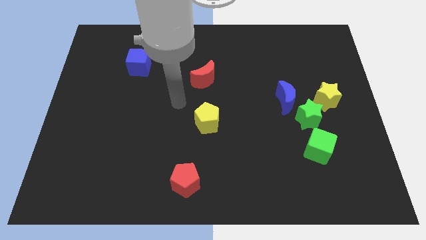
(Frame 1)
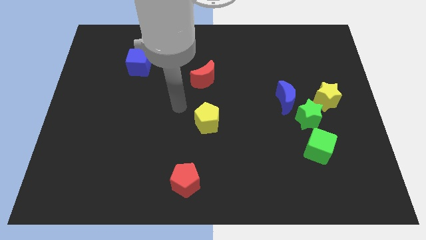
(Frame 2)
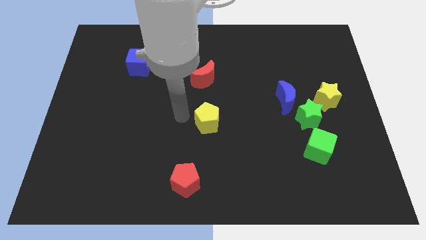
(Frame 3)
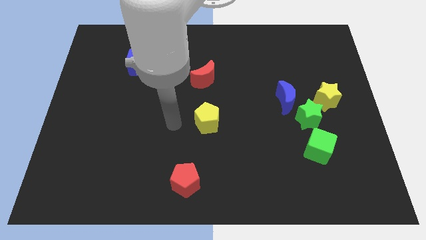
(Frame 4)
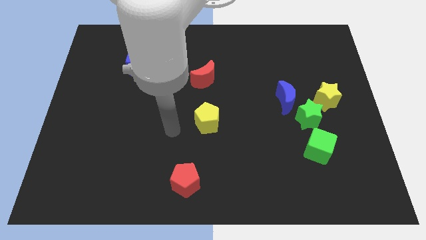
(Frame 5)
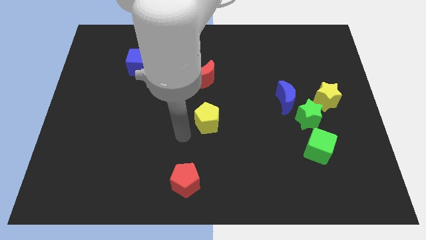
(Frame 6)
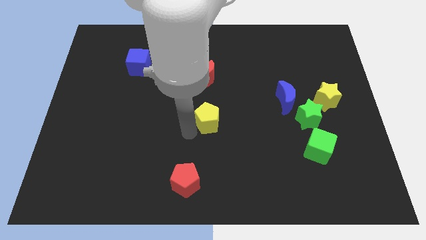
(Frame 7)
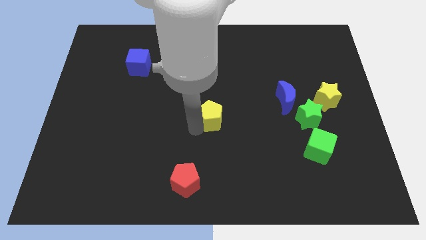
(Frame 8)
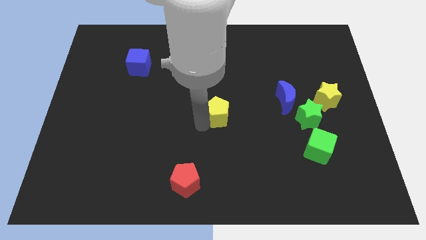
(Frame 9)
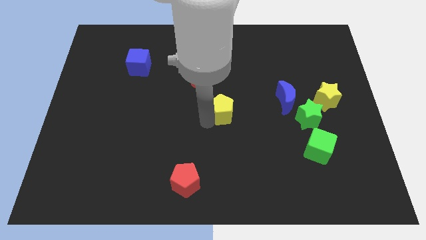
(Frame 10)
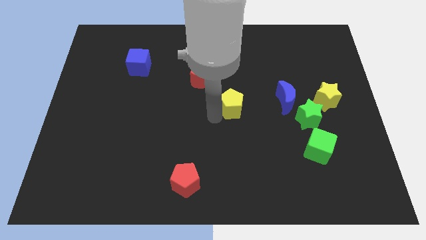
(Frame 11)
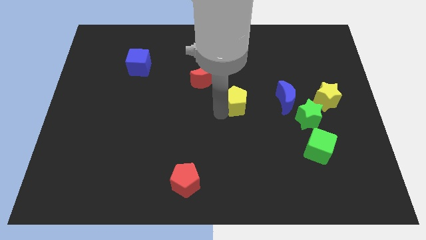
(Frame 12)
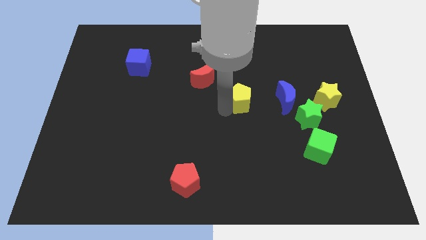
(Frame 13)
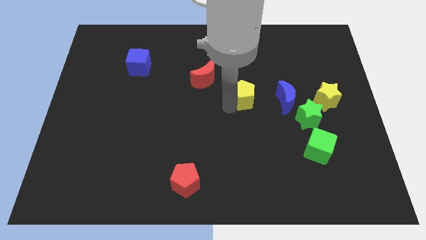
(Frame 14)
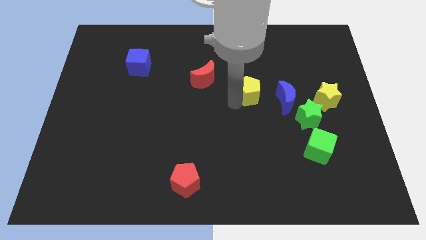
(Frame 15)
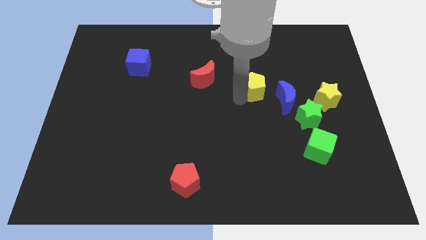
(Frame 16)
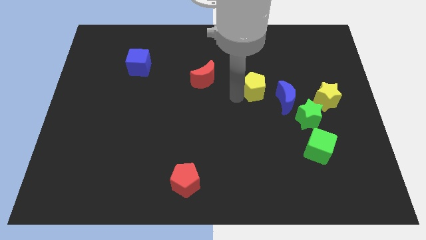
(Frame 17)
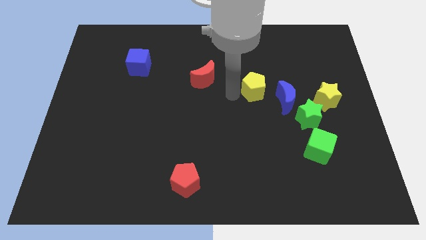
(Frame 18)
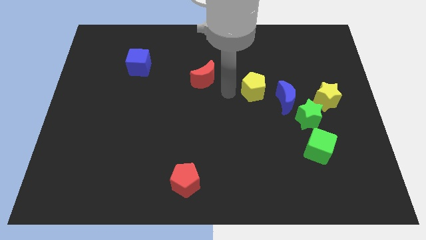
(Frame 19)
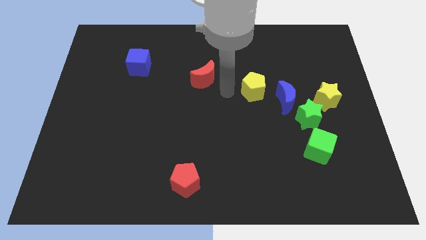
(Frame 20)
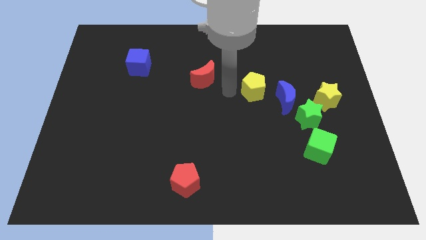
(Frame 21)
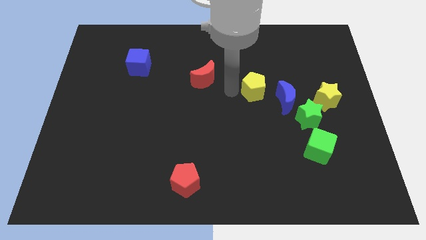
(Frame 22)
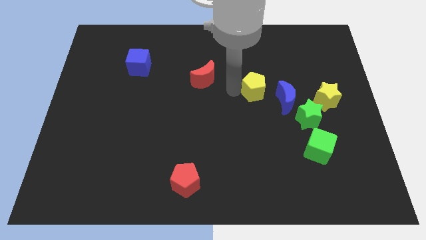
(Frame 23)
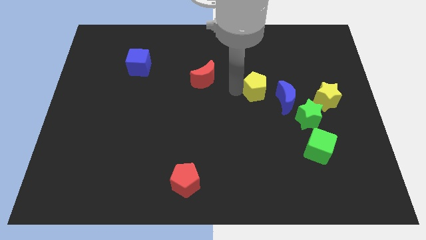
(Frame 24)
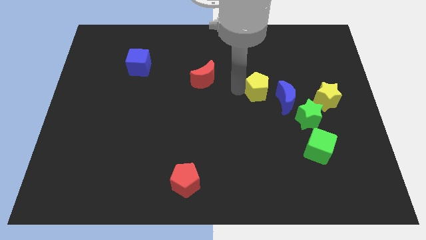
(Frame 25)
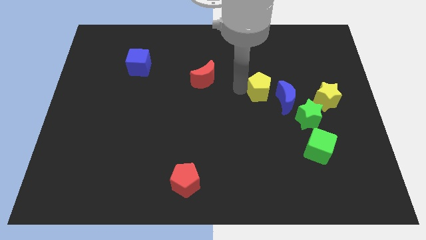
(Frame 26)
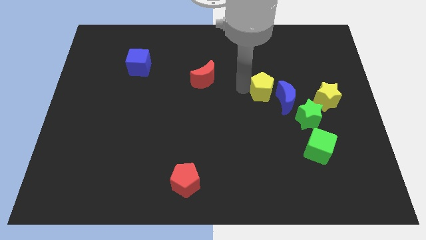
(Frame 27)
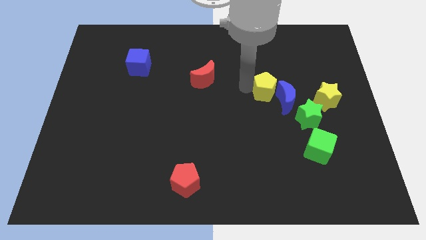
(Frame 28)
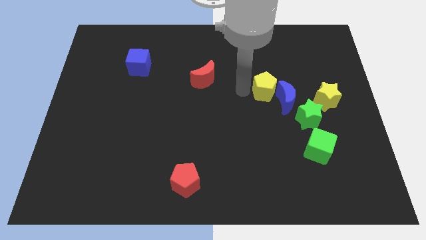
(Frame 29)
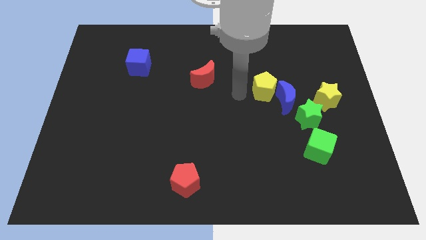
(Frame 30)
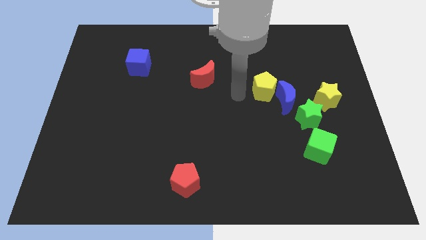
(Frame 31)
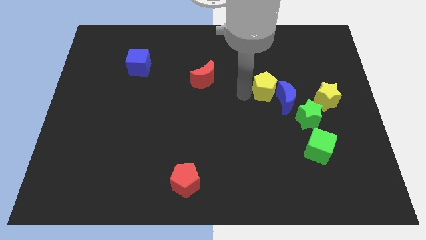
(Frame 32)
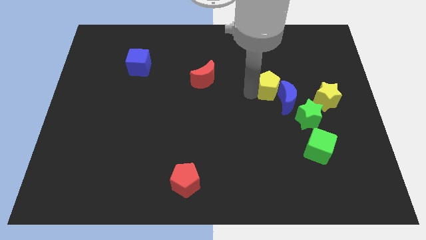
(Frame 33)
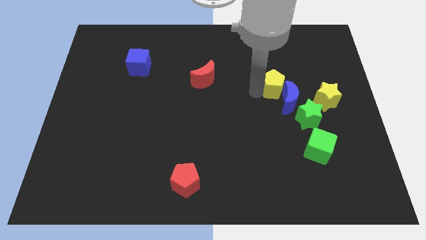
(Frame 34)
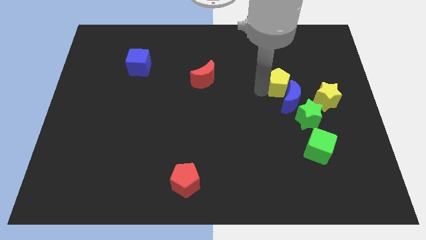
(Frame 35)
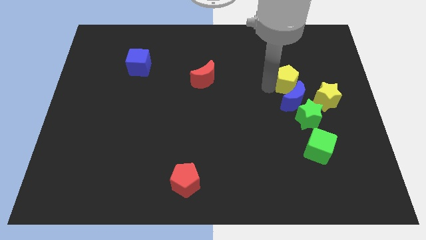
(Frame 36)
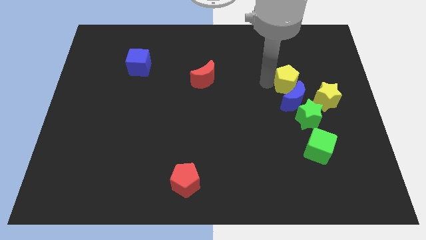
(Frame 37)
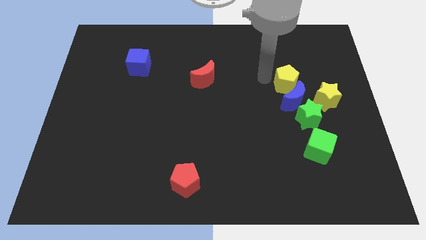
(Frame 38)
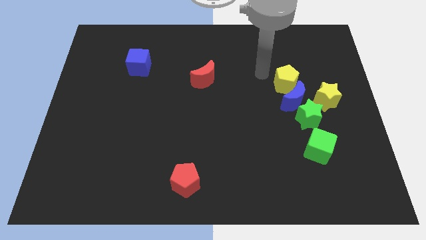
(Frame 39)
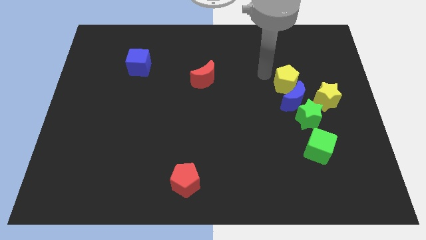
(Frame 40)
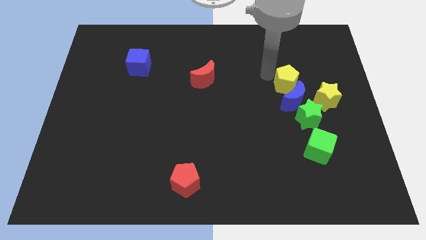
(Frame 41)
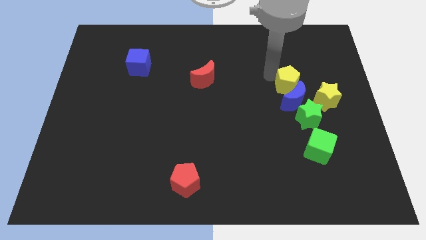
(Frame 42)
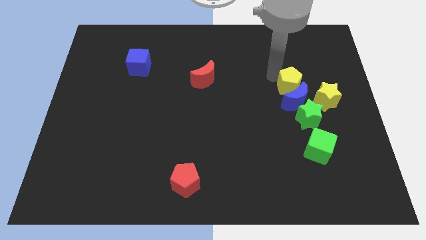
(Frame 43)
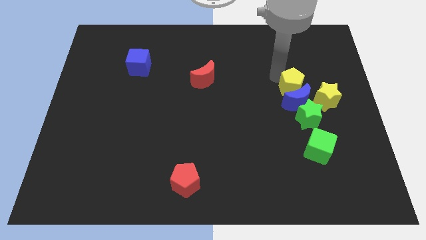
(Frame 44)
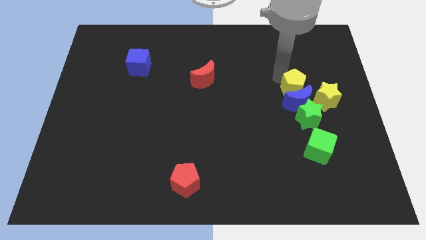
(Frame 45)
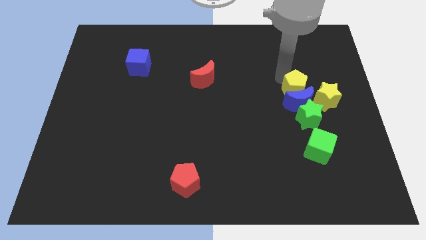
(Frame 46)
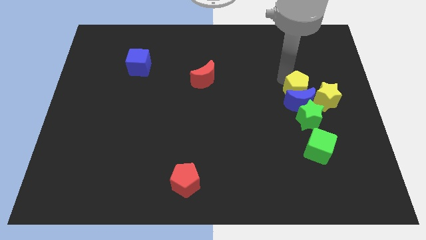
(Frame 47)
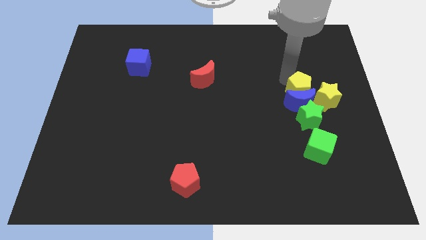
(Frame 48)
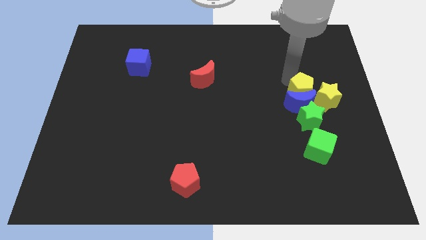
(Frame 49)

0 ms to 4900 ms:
move the yellow pentagon close to the yellow star

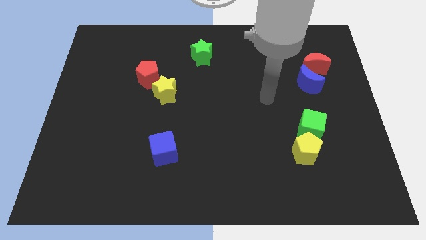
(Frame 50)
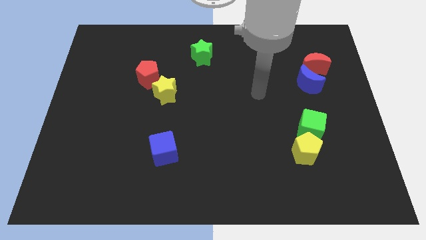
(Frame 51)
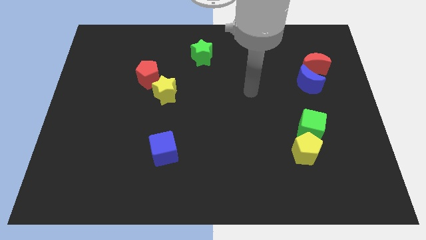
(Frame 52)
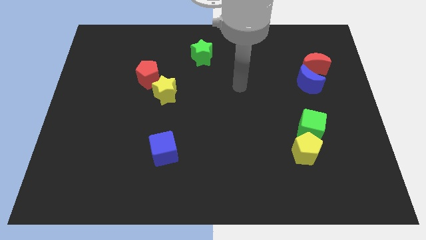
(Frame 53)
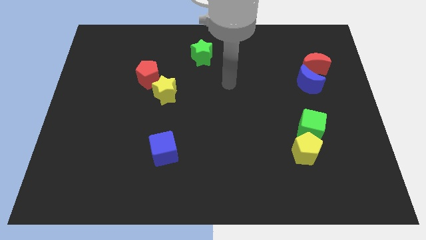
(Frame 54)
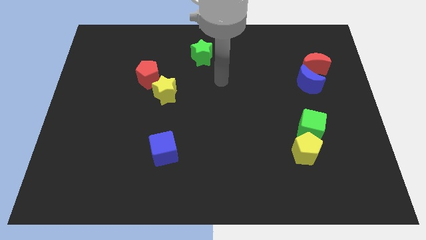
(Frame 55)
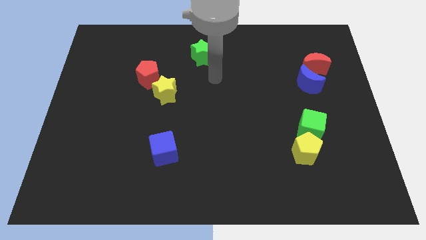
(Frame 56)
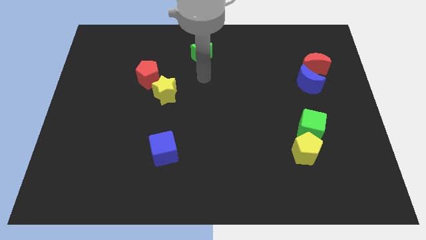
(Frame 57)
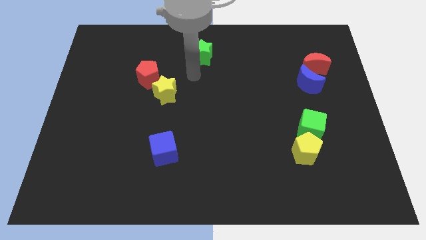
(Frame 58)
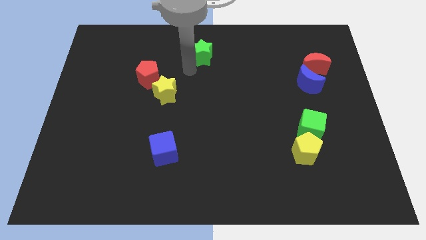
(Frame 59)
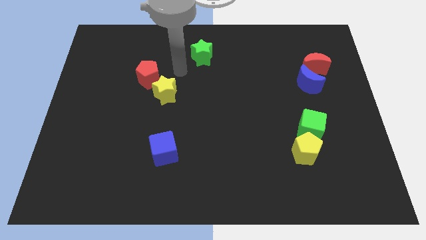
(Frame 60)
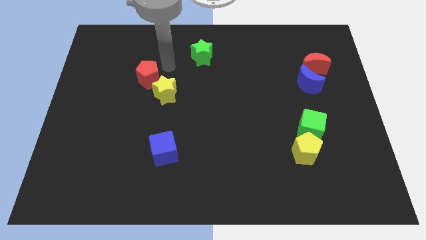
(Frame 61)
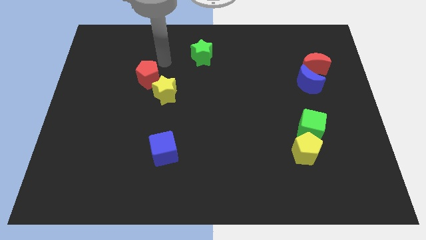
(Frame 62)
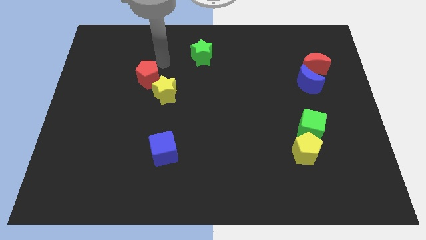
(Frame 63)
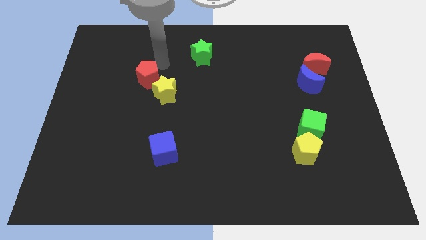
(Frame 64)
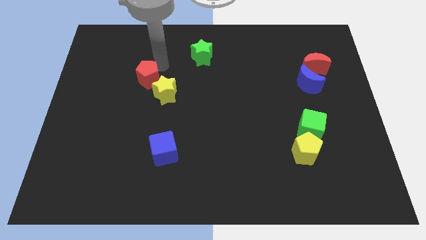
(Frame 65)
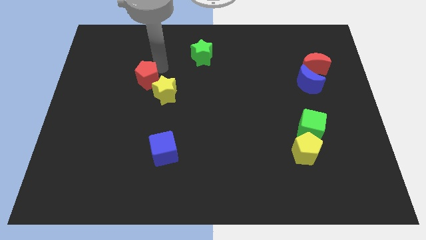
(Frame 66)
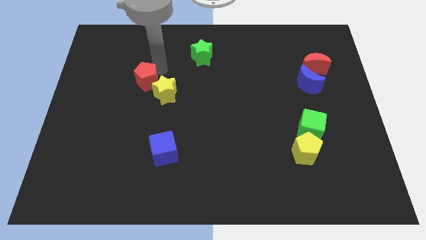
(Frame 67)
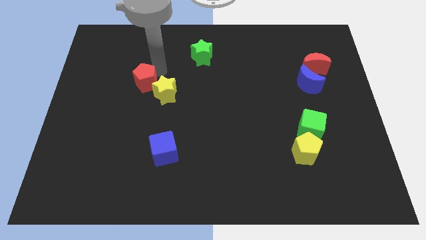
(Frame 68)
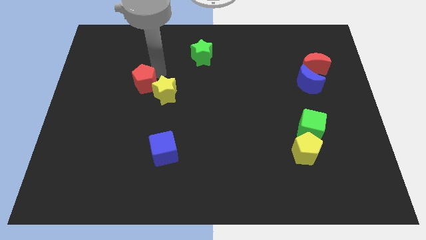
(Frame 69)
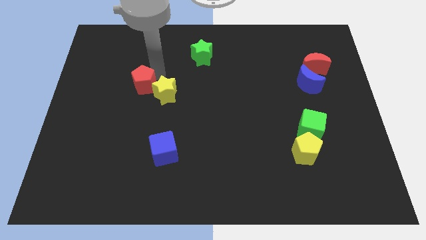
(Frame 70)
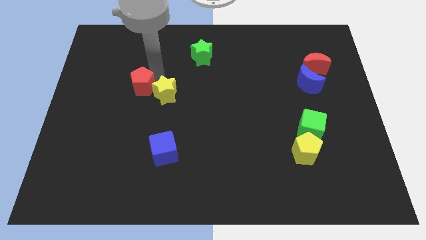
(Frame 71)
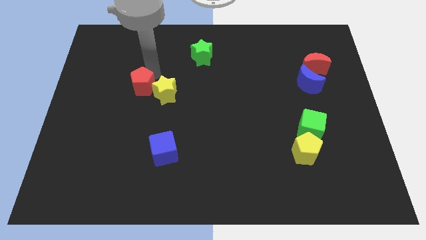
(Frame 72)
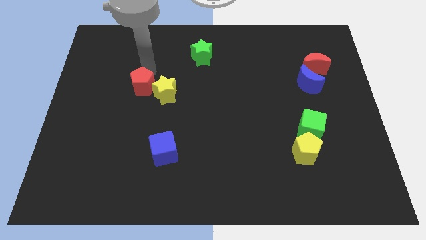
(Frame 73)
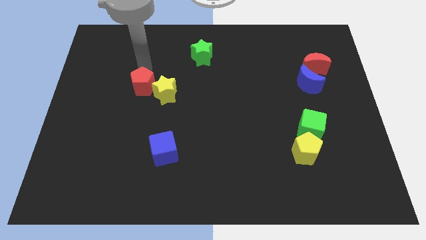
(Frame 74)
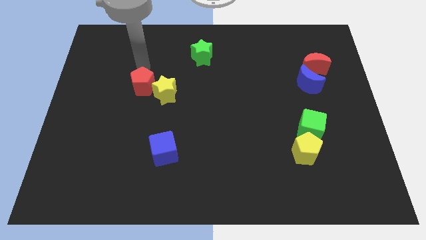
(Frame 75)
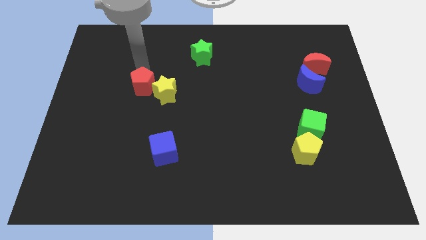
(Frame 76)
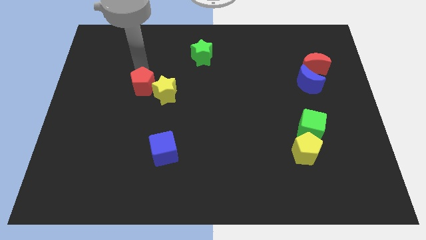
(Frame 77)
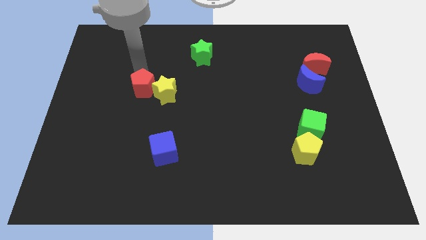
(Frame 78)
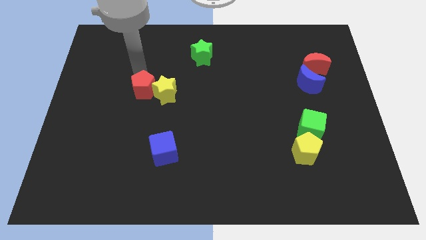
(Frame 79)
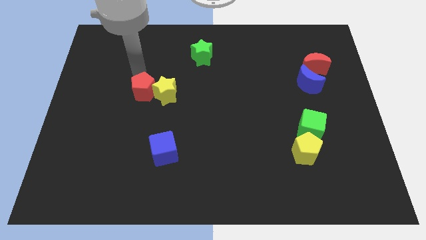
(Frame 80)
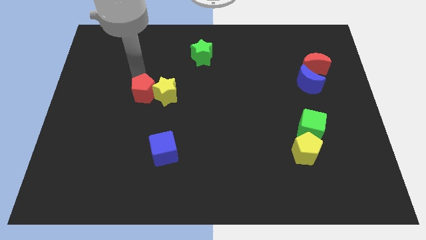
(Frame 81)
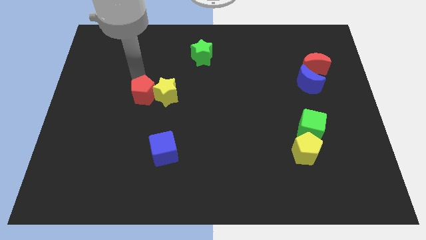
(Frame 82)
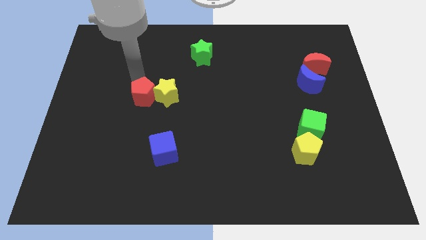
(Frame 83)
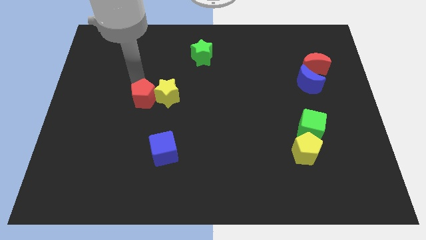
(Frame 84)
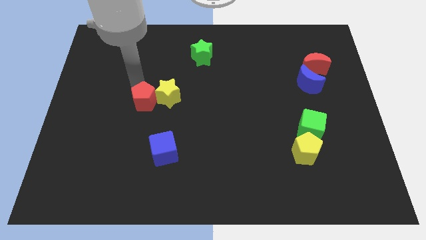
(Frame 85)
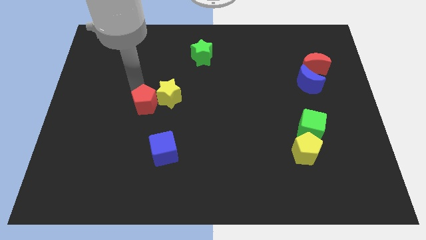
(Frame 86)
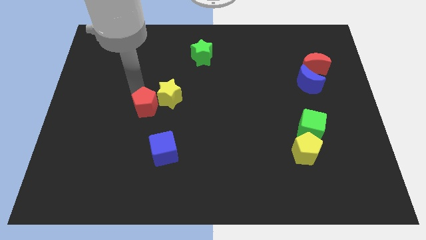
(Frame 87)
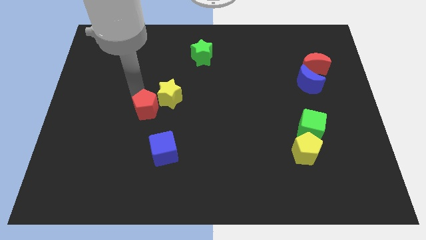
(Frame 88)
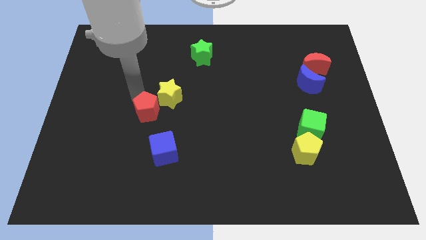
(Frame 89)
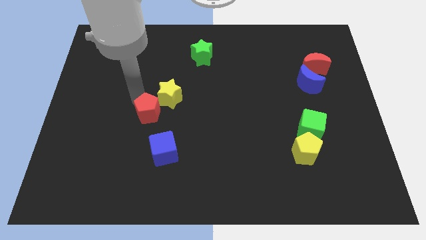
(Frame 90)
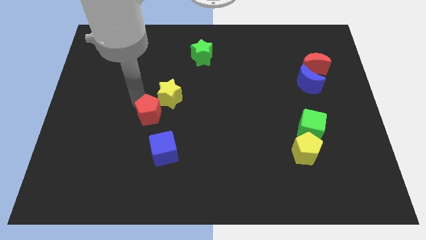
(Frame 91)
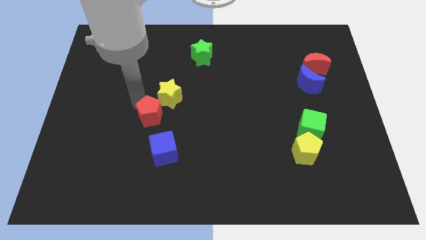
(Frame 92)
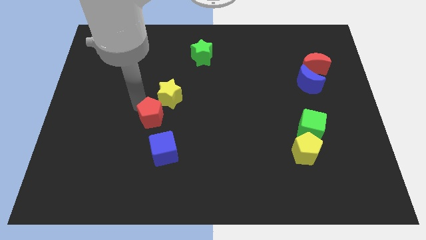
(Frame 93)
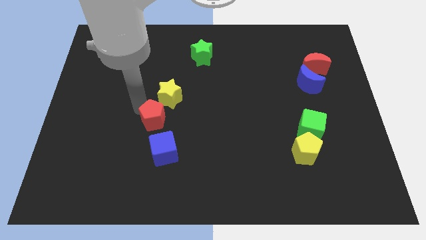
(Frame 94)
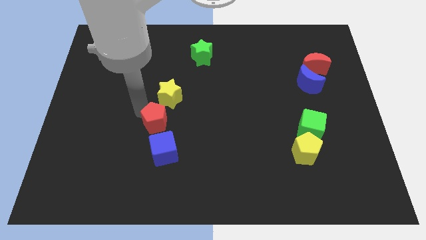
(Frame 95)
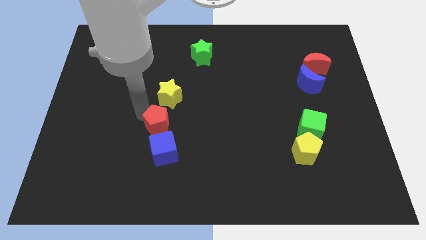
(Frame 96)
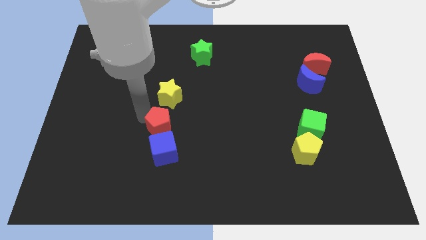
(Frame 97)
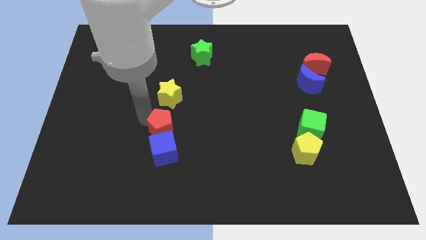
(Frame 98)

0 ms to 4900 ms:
move the red pentagon close to the blue cube
